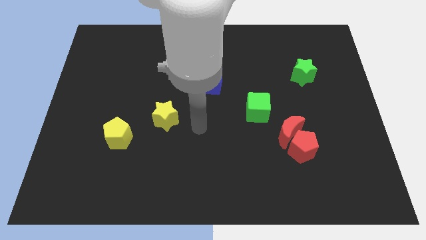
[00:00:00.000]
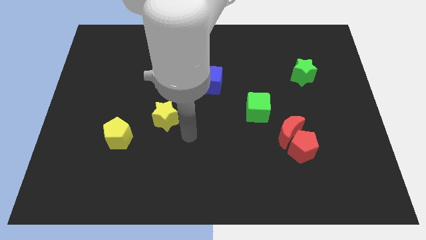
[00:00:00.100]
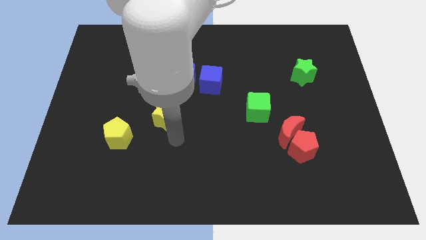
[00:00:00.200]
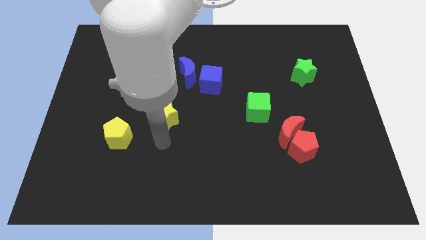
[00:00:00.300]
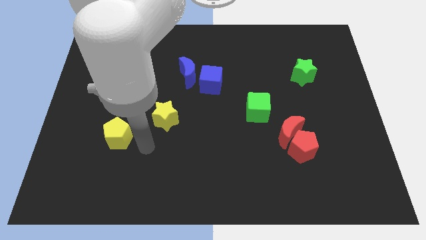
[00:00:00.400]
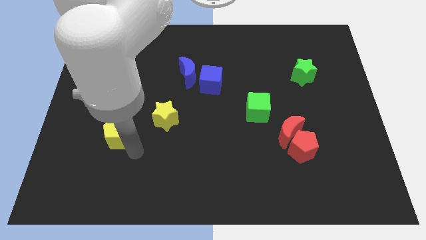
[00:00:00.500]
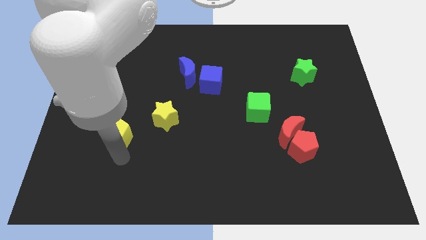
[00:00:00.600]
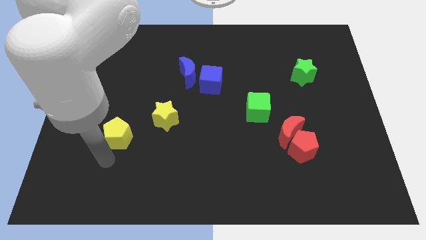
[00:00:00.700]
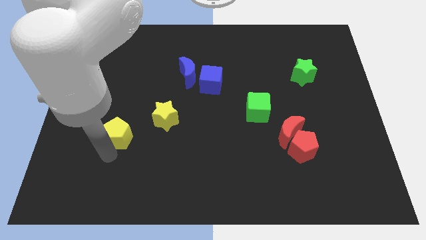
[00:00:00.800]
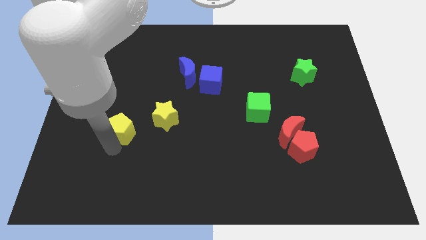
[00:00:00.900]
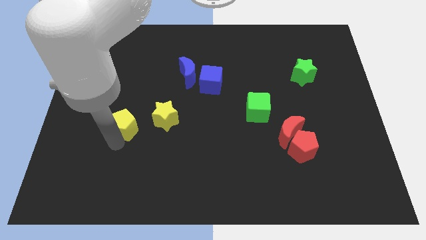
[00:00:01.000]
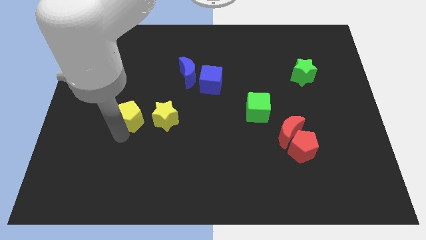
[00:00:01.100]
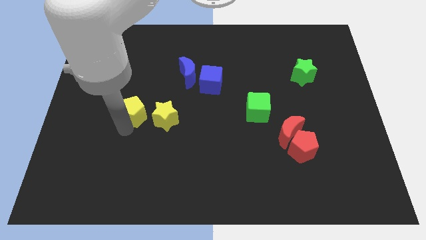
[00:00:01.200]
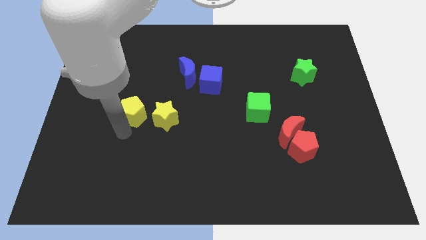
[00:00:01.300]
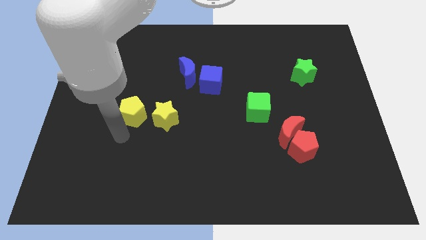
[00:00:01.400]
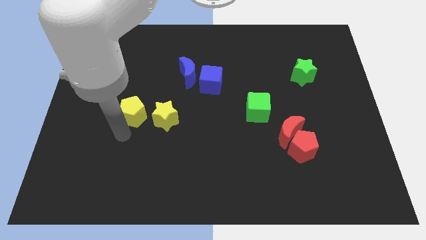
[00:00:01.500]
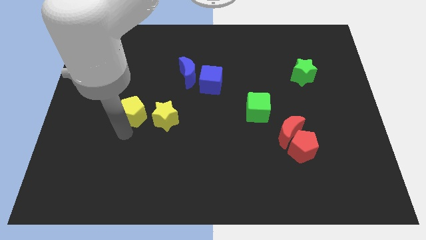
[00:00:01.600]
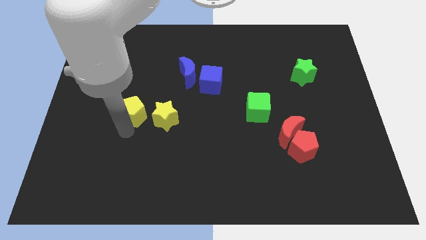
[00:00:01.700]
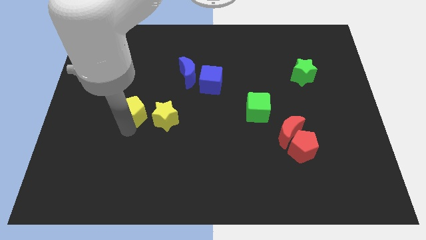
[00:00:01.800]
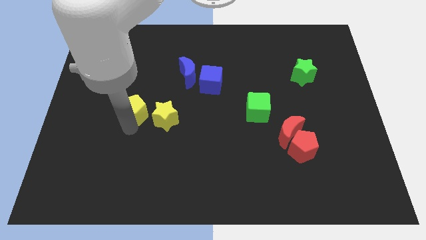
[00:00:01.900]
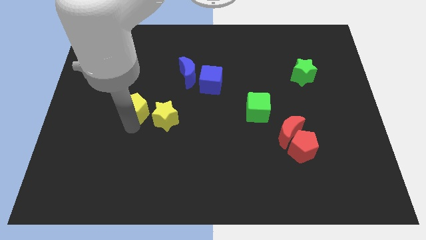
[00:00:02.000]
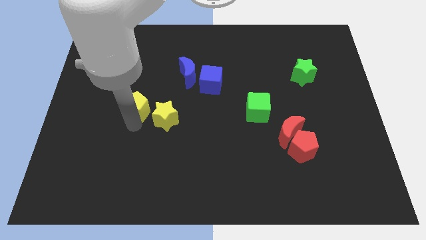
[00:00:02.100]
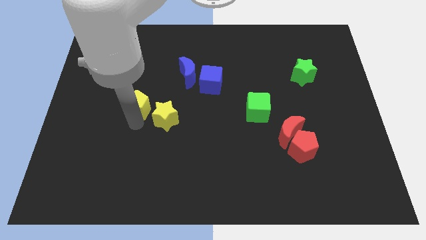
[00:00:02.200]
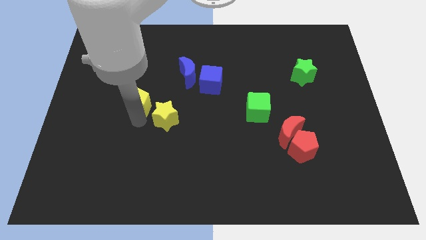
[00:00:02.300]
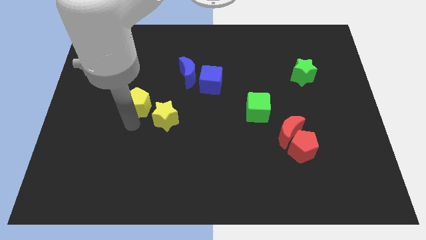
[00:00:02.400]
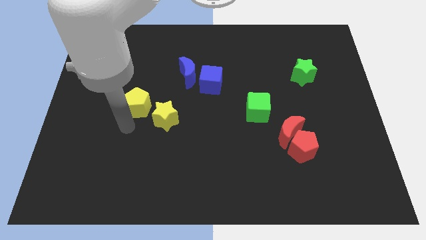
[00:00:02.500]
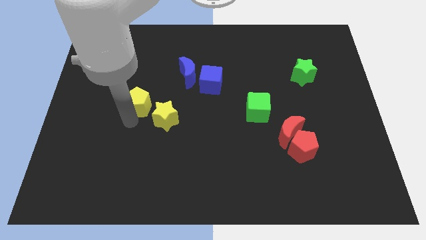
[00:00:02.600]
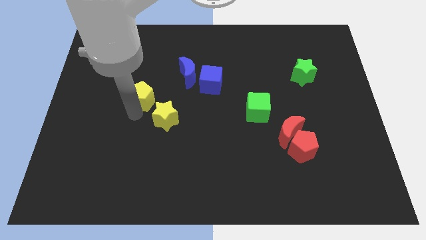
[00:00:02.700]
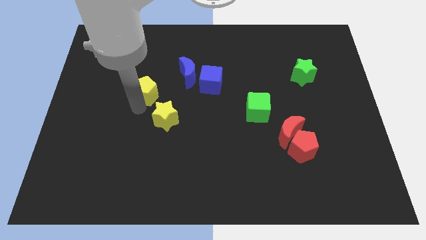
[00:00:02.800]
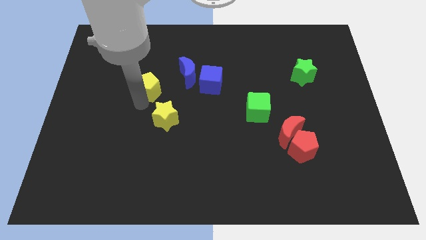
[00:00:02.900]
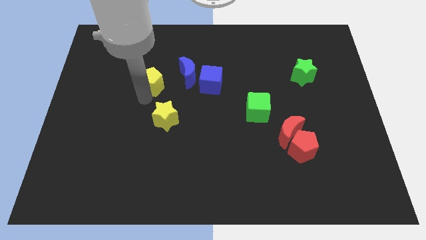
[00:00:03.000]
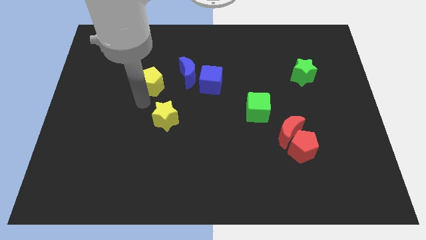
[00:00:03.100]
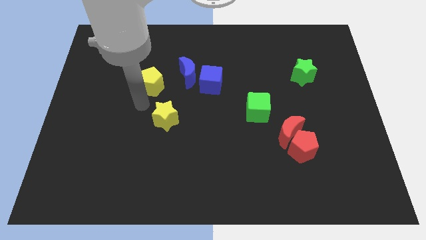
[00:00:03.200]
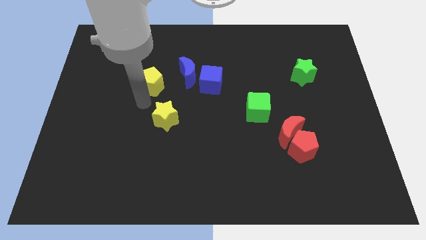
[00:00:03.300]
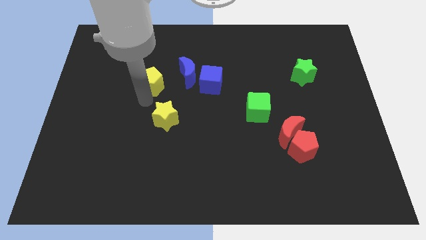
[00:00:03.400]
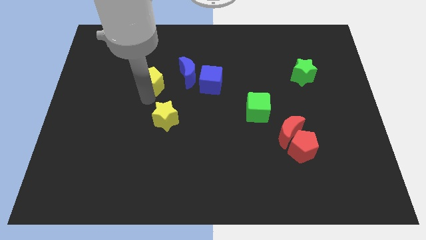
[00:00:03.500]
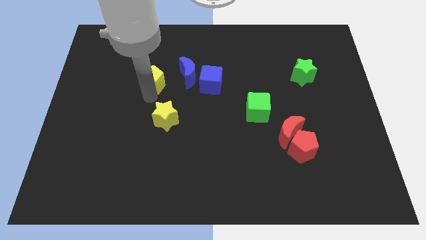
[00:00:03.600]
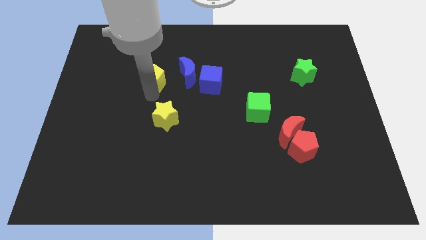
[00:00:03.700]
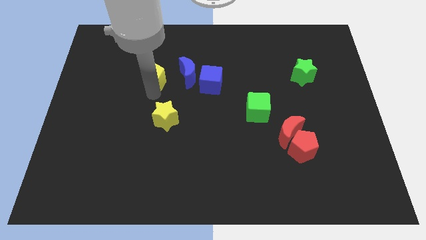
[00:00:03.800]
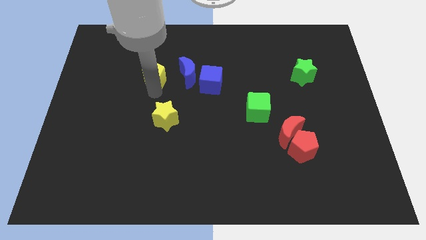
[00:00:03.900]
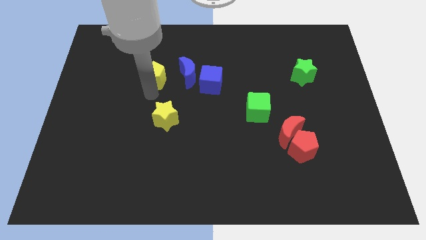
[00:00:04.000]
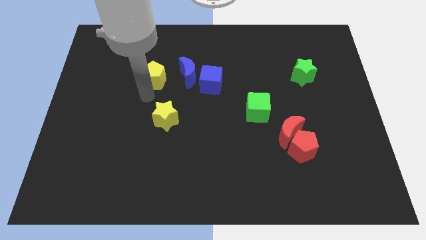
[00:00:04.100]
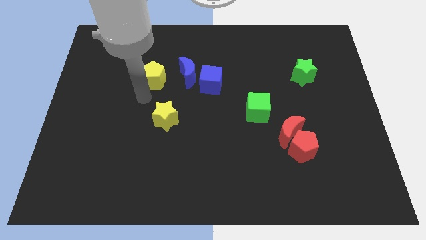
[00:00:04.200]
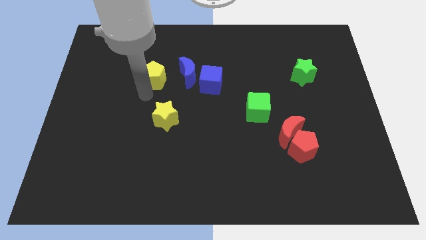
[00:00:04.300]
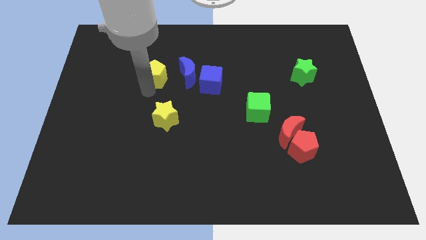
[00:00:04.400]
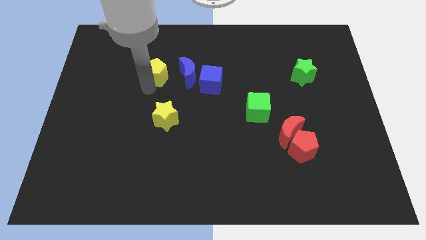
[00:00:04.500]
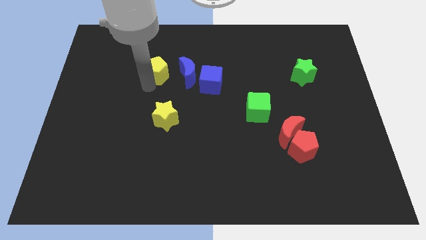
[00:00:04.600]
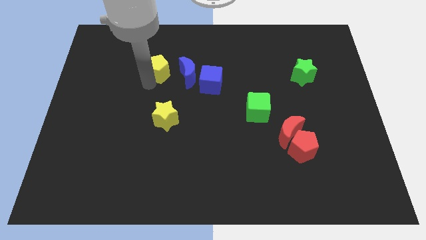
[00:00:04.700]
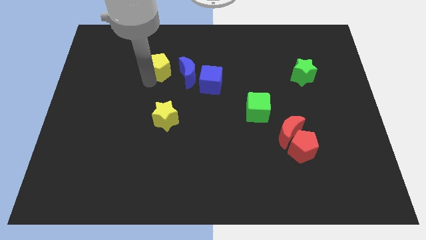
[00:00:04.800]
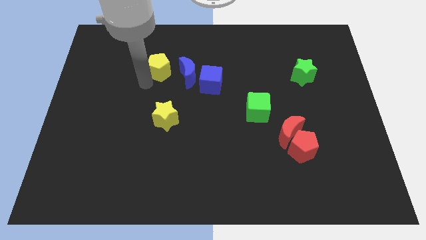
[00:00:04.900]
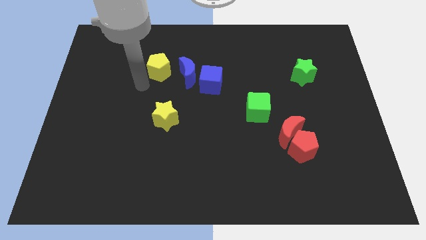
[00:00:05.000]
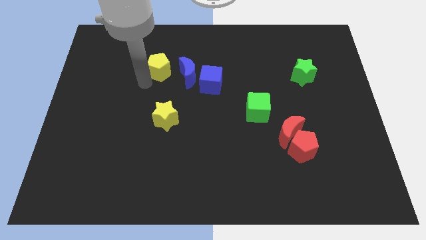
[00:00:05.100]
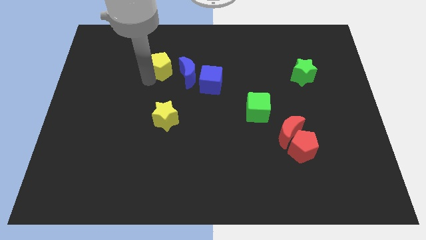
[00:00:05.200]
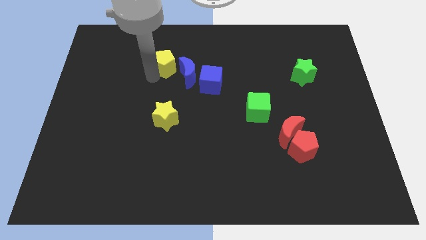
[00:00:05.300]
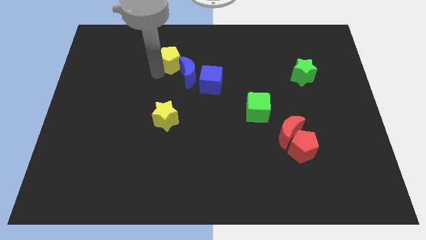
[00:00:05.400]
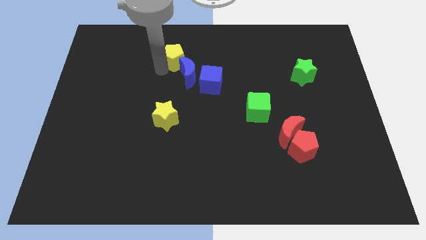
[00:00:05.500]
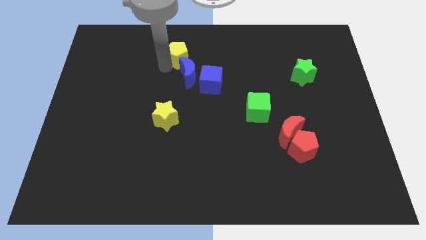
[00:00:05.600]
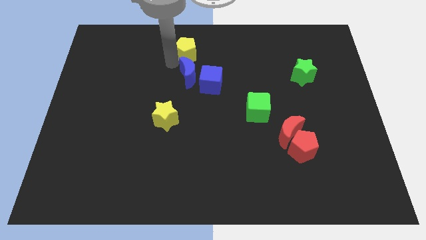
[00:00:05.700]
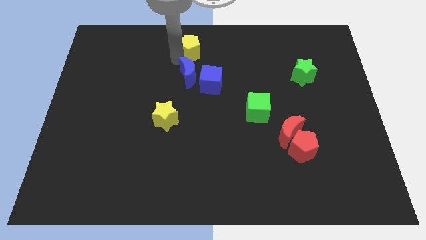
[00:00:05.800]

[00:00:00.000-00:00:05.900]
slide the yellow pentagon to the top side

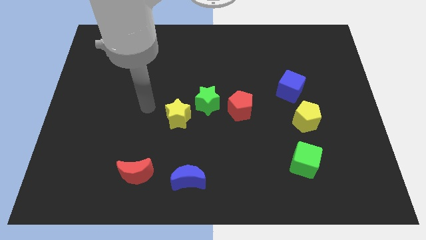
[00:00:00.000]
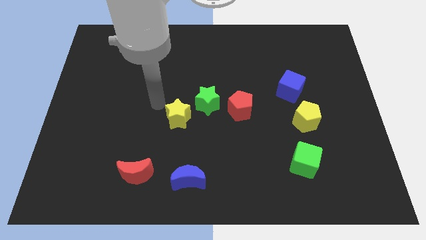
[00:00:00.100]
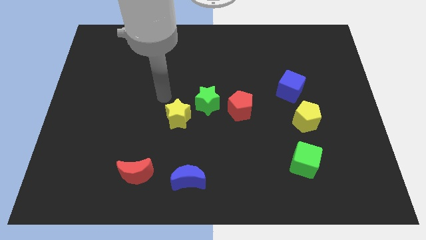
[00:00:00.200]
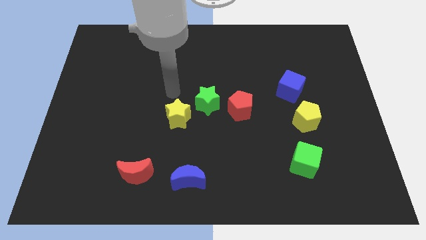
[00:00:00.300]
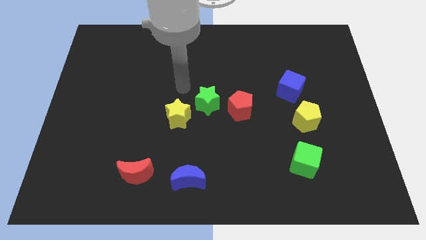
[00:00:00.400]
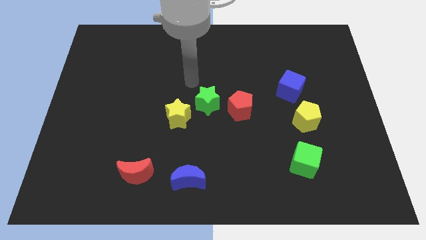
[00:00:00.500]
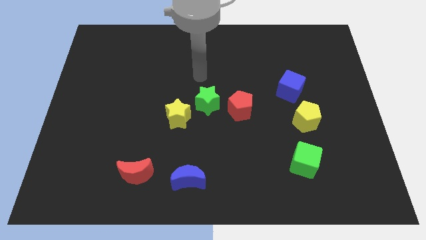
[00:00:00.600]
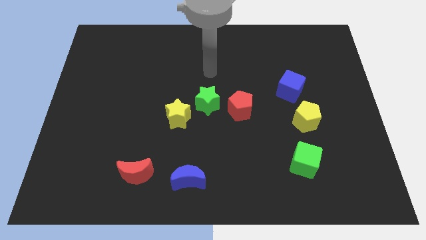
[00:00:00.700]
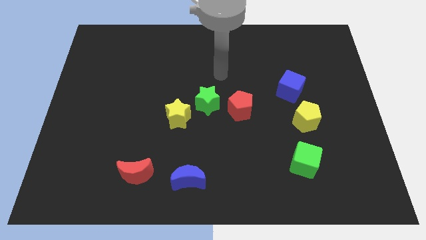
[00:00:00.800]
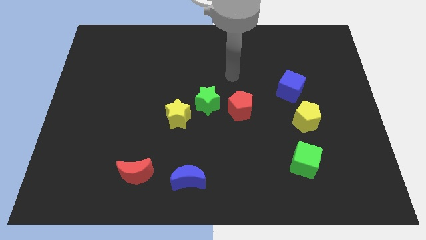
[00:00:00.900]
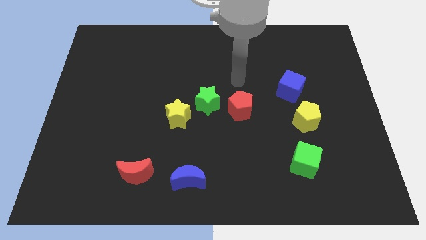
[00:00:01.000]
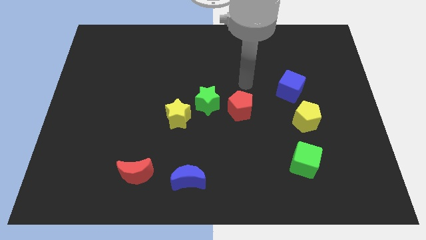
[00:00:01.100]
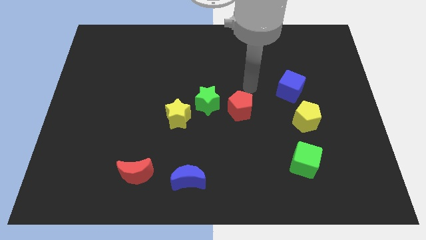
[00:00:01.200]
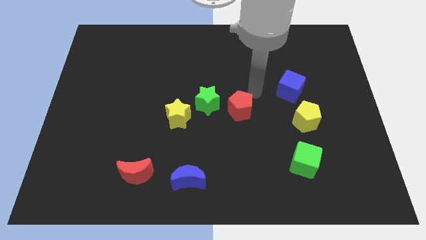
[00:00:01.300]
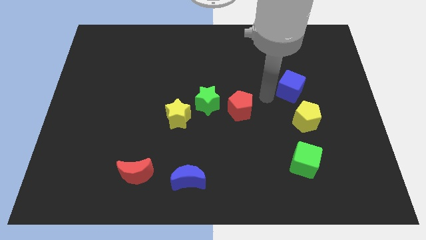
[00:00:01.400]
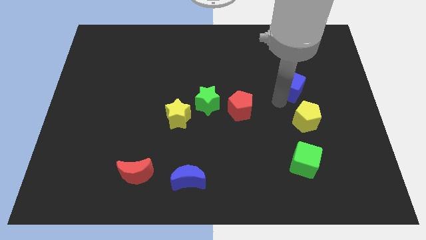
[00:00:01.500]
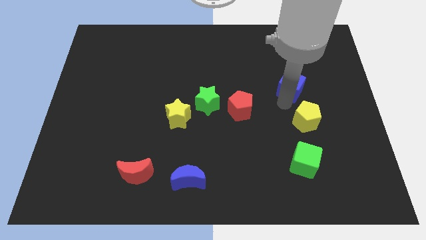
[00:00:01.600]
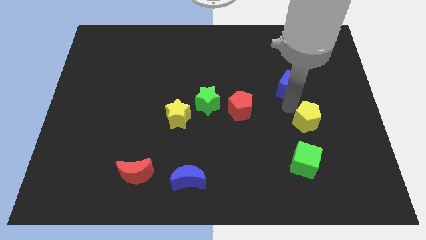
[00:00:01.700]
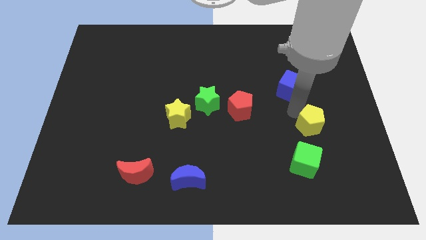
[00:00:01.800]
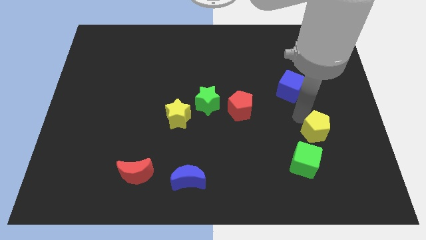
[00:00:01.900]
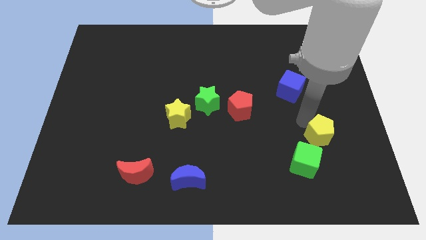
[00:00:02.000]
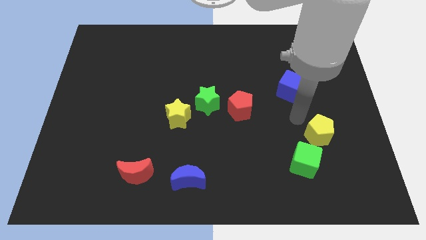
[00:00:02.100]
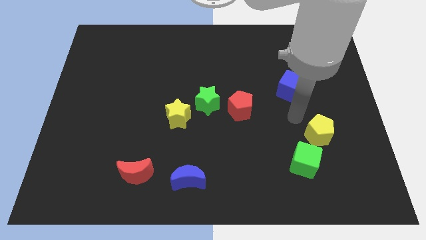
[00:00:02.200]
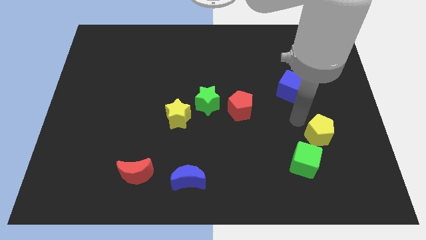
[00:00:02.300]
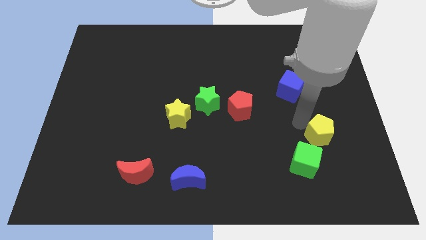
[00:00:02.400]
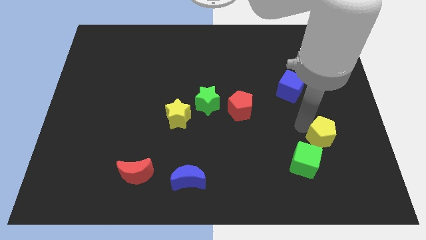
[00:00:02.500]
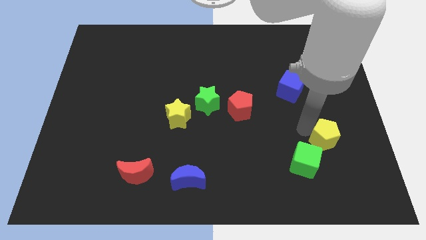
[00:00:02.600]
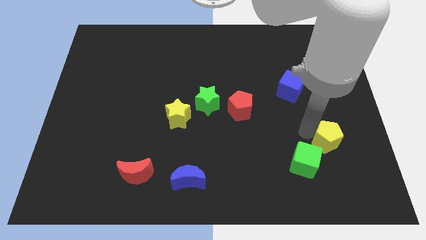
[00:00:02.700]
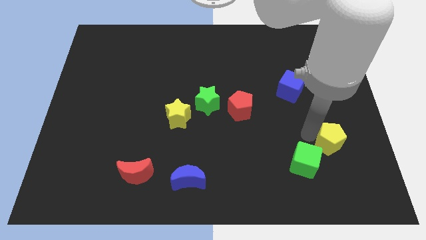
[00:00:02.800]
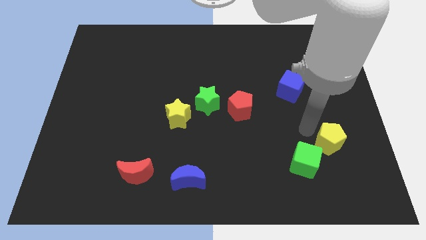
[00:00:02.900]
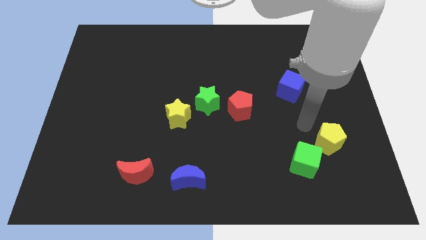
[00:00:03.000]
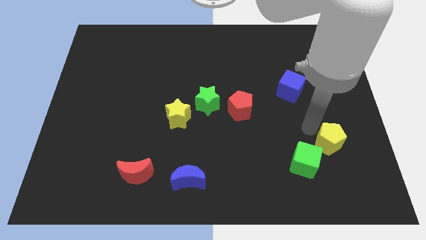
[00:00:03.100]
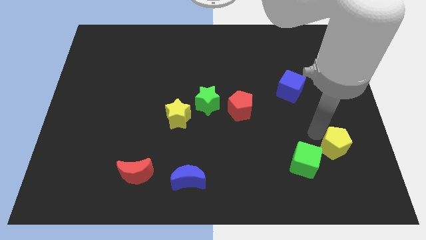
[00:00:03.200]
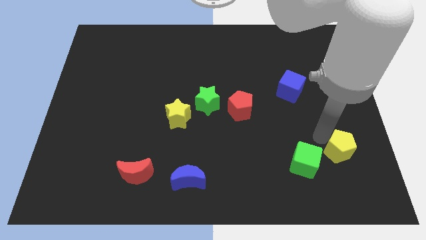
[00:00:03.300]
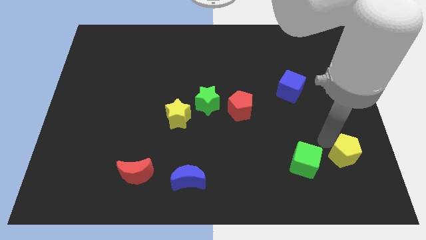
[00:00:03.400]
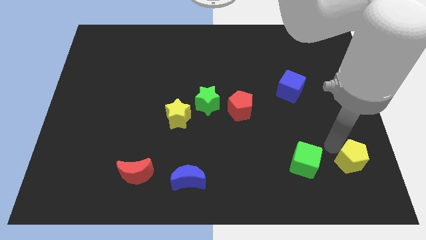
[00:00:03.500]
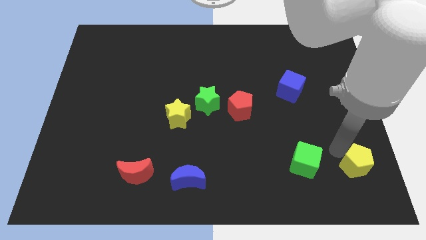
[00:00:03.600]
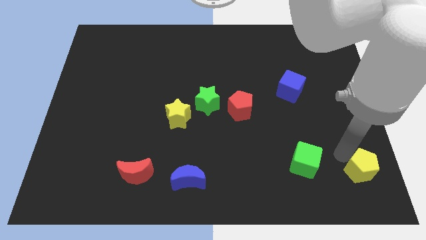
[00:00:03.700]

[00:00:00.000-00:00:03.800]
push the yellow pentagon to the bottom right corner
